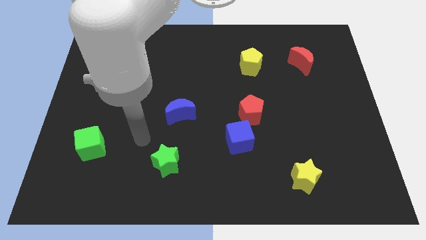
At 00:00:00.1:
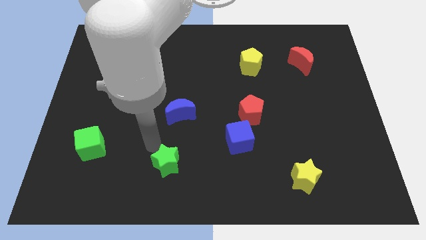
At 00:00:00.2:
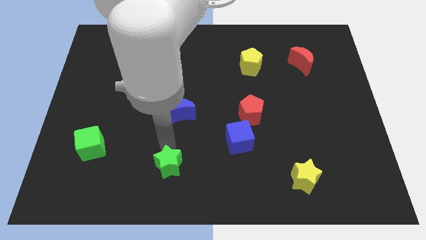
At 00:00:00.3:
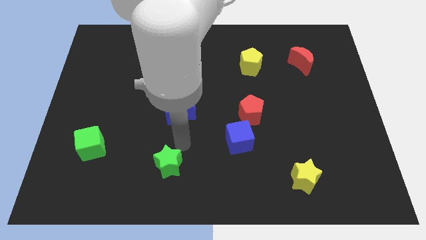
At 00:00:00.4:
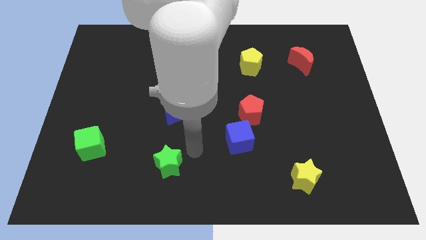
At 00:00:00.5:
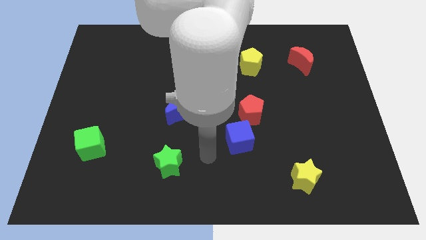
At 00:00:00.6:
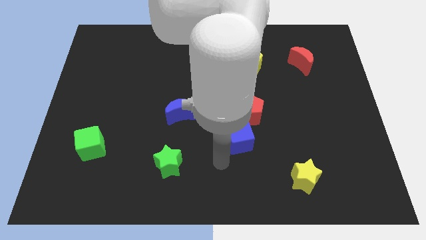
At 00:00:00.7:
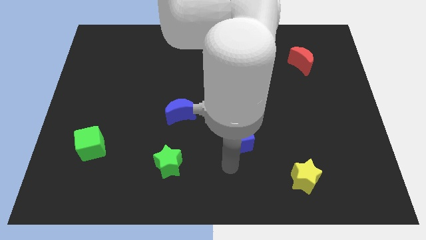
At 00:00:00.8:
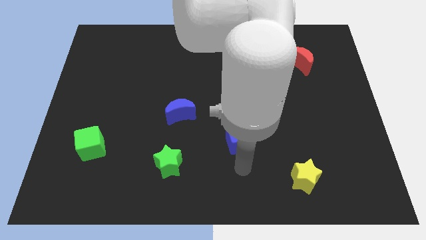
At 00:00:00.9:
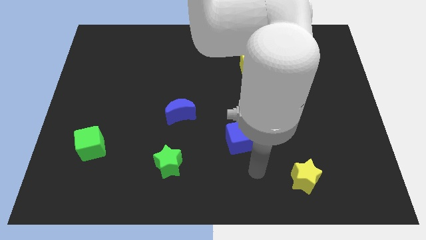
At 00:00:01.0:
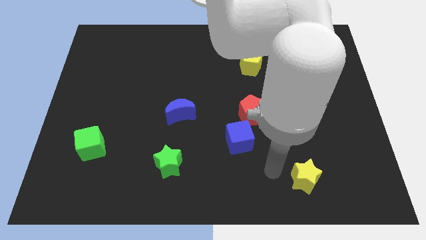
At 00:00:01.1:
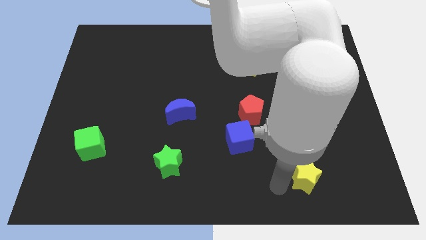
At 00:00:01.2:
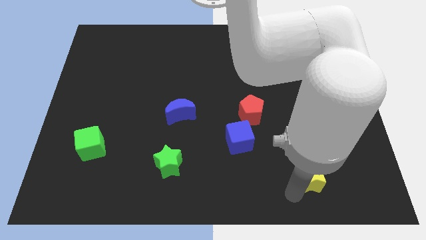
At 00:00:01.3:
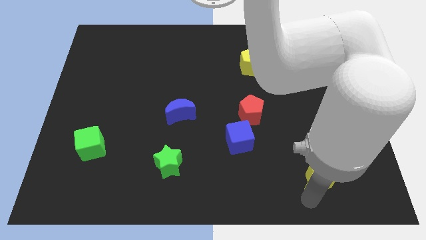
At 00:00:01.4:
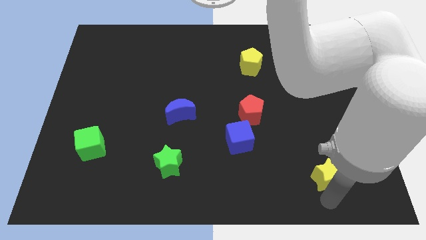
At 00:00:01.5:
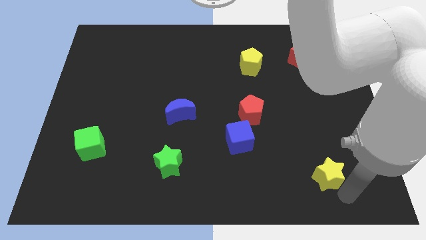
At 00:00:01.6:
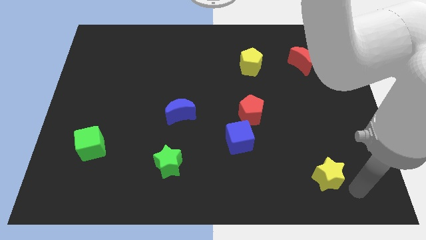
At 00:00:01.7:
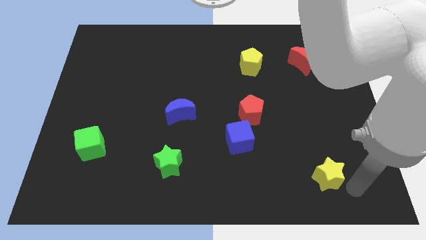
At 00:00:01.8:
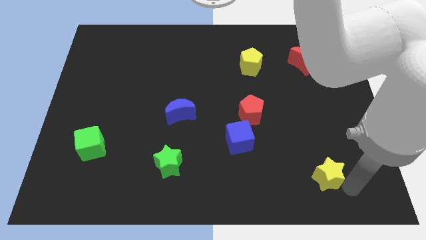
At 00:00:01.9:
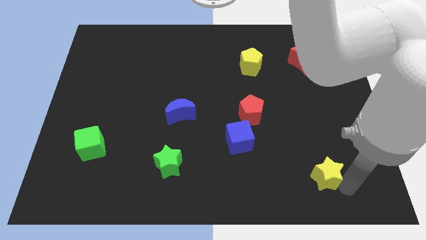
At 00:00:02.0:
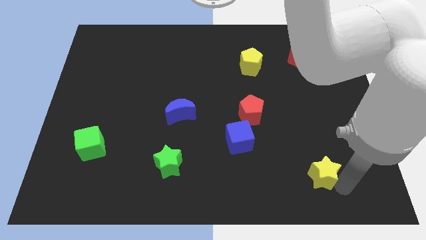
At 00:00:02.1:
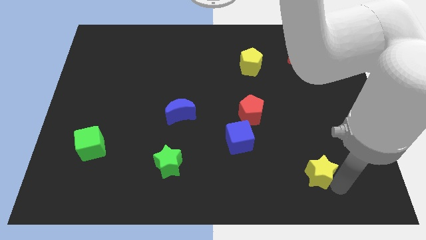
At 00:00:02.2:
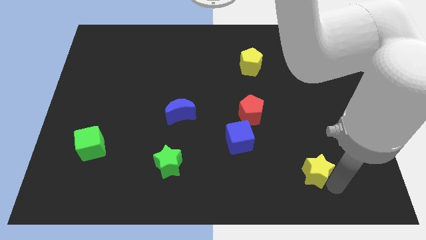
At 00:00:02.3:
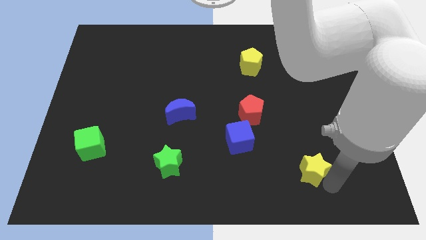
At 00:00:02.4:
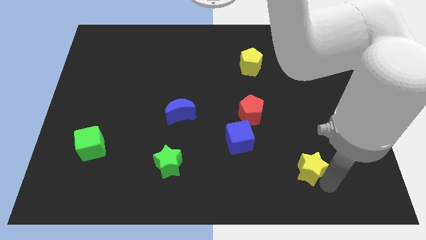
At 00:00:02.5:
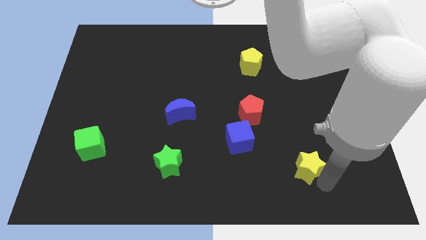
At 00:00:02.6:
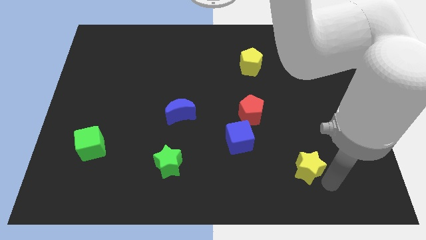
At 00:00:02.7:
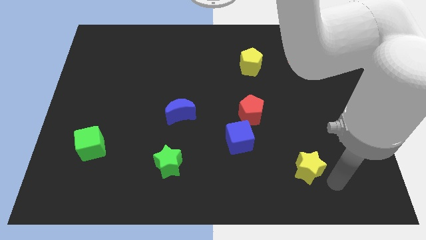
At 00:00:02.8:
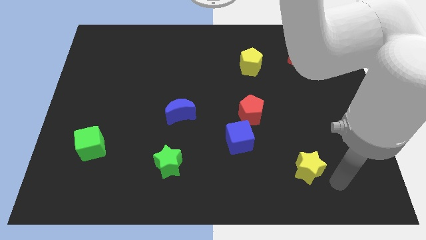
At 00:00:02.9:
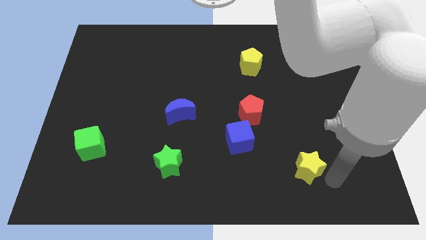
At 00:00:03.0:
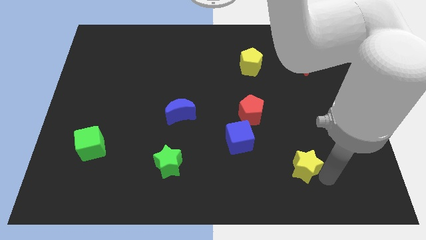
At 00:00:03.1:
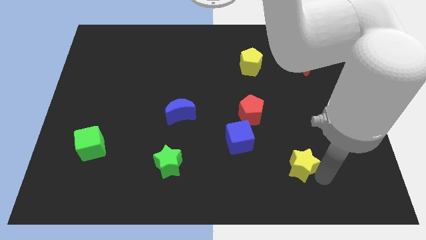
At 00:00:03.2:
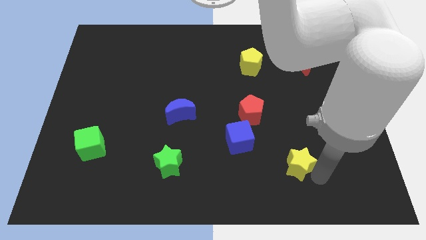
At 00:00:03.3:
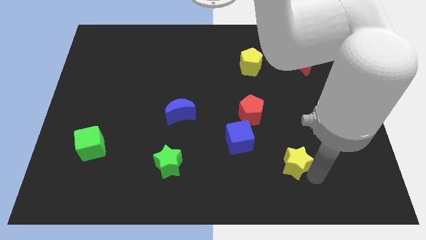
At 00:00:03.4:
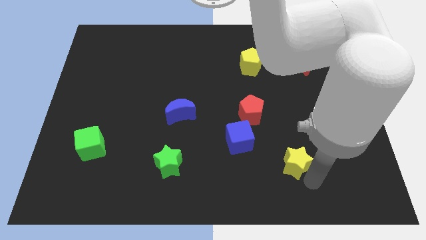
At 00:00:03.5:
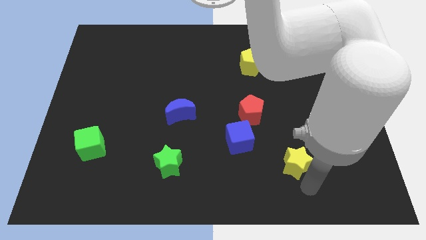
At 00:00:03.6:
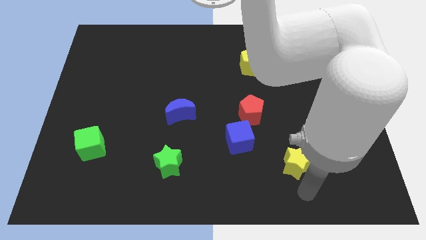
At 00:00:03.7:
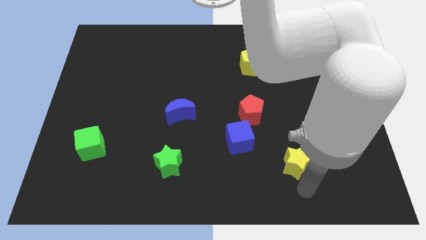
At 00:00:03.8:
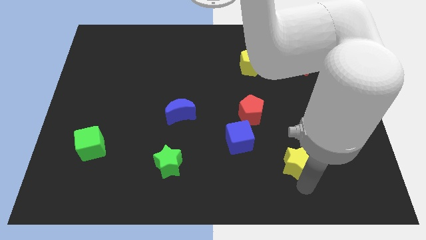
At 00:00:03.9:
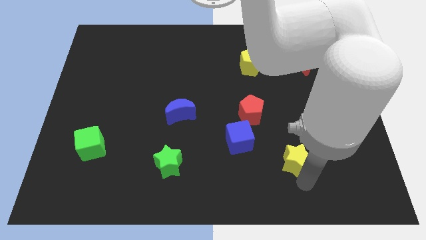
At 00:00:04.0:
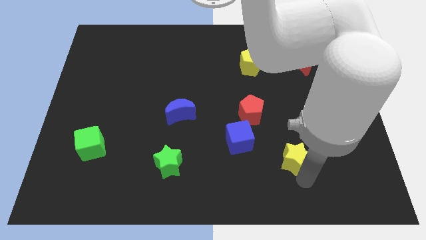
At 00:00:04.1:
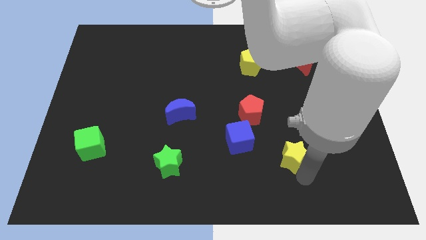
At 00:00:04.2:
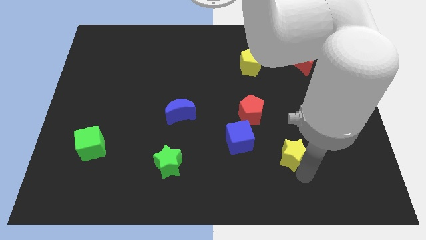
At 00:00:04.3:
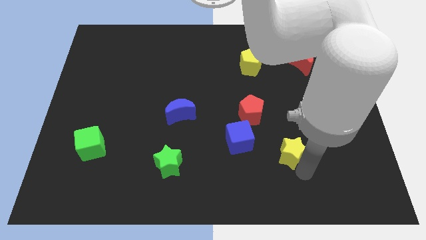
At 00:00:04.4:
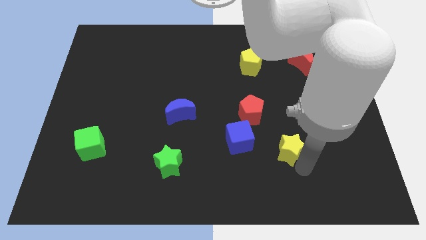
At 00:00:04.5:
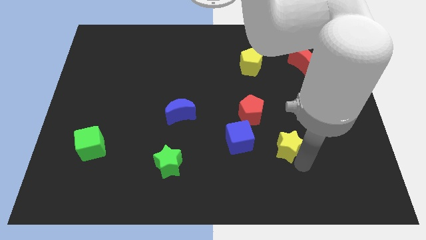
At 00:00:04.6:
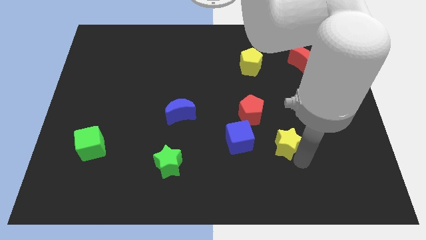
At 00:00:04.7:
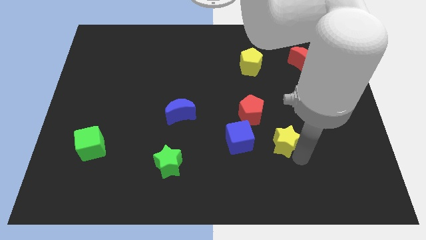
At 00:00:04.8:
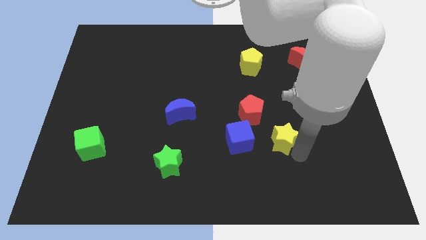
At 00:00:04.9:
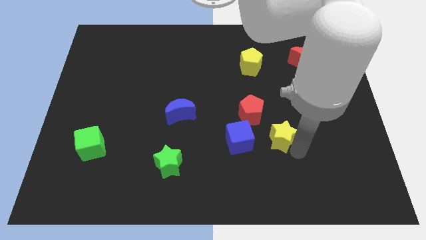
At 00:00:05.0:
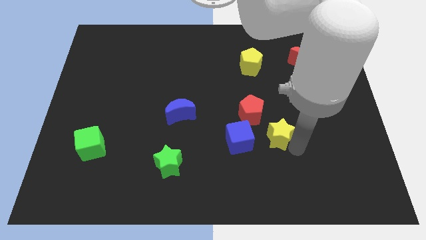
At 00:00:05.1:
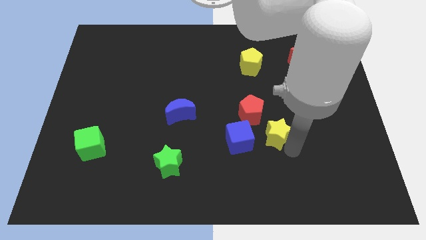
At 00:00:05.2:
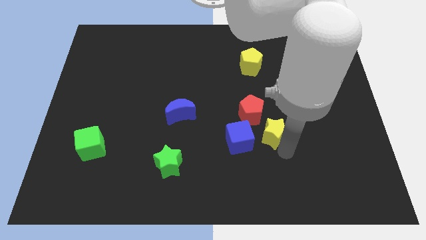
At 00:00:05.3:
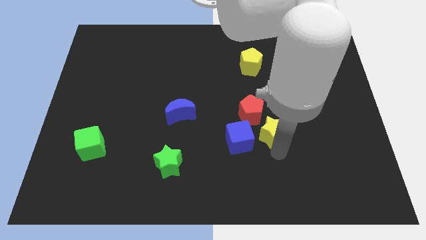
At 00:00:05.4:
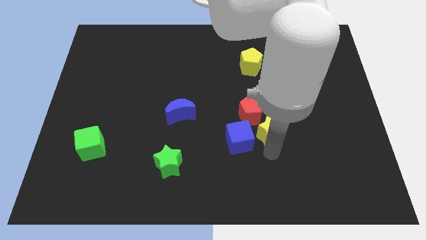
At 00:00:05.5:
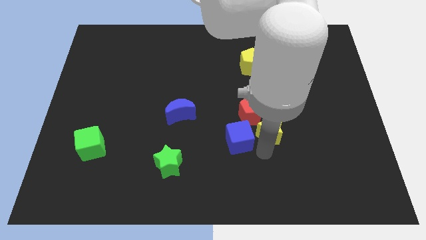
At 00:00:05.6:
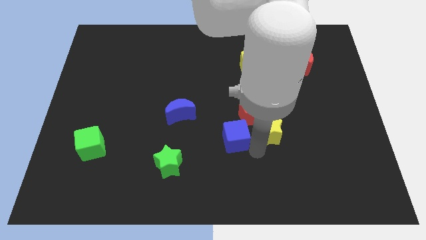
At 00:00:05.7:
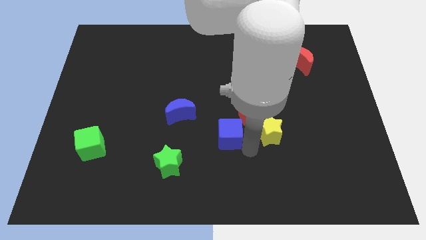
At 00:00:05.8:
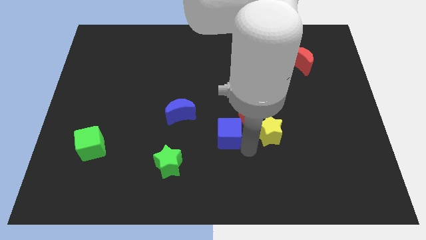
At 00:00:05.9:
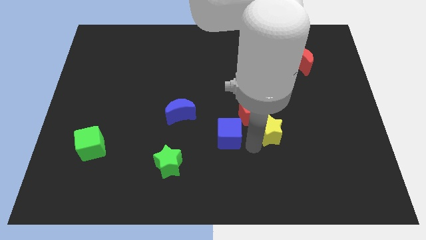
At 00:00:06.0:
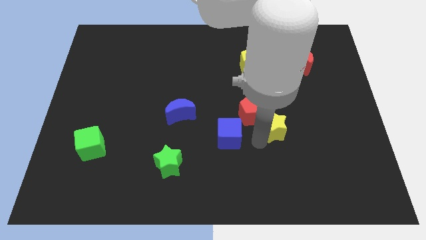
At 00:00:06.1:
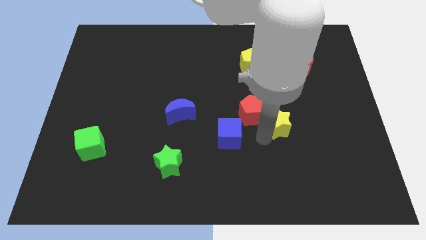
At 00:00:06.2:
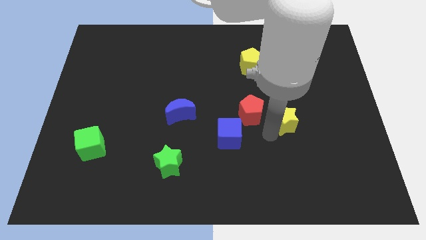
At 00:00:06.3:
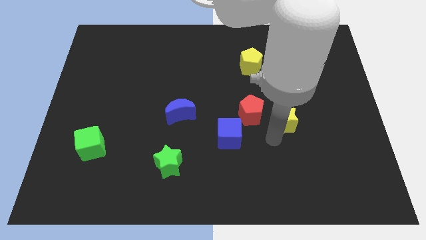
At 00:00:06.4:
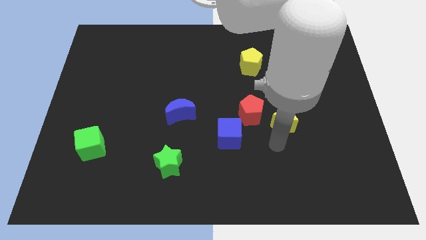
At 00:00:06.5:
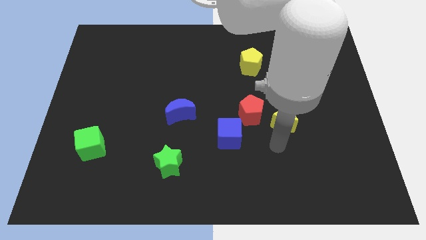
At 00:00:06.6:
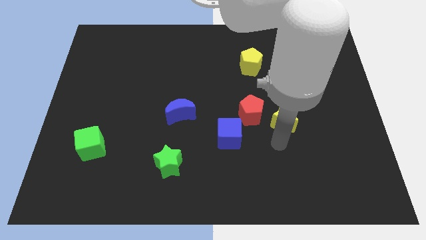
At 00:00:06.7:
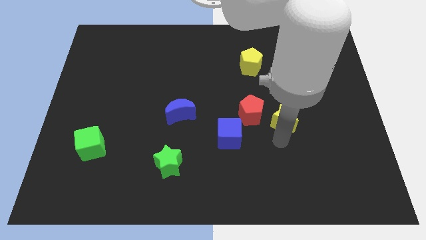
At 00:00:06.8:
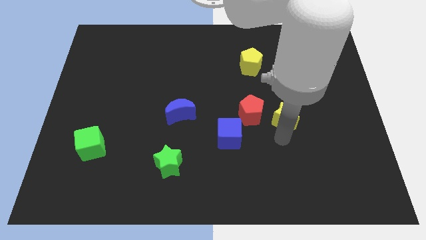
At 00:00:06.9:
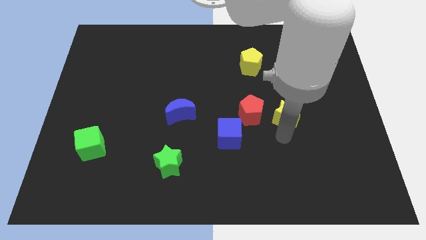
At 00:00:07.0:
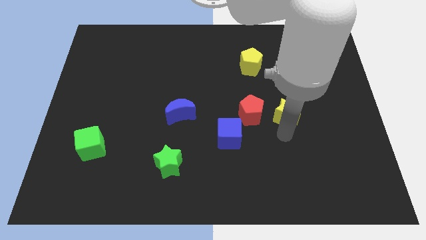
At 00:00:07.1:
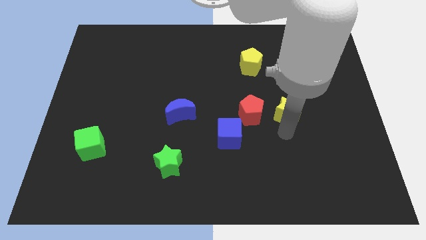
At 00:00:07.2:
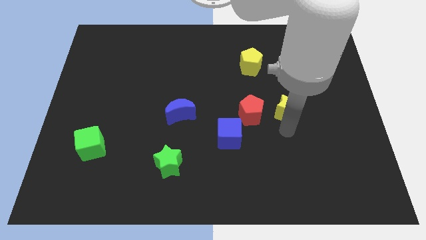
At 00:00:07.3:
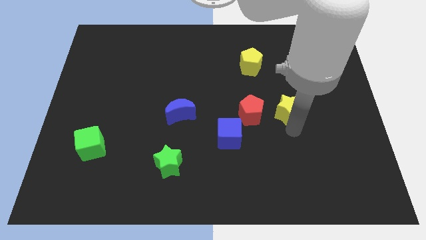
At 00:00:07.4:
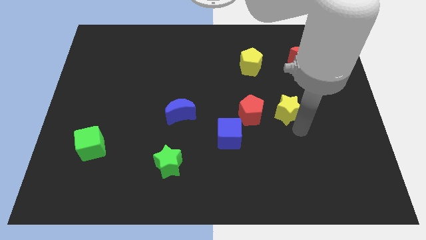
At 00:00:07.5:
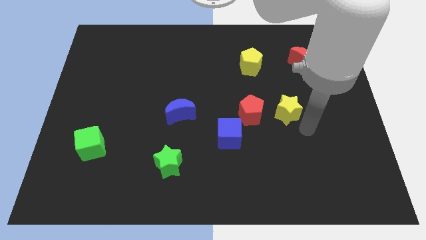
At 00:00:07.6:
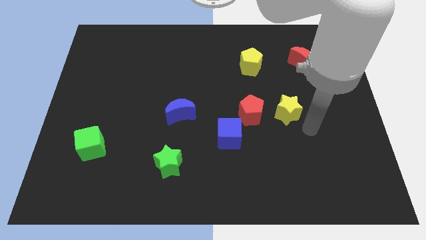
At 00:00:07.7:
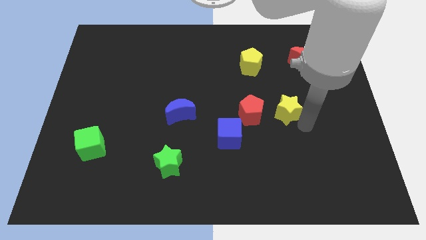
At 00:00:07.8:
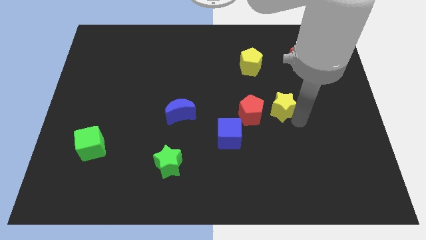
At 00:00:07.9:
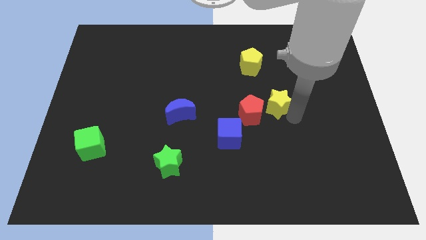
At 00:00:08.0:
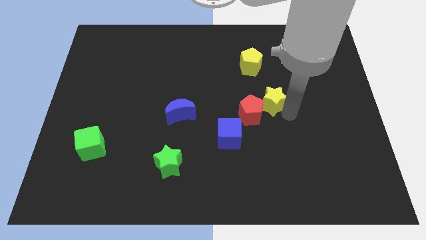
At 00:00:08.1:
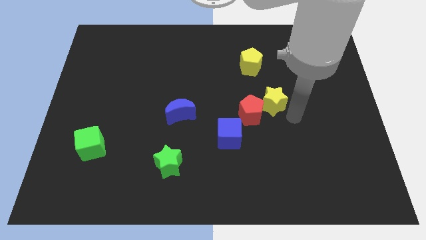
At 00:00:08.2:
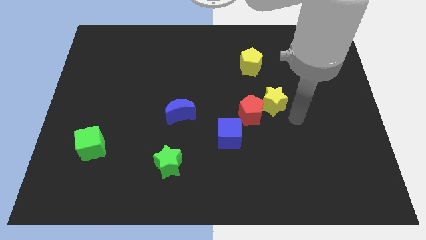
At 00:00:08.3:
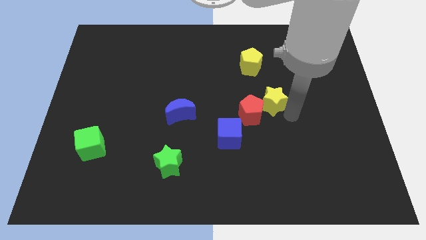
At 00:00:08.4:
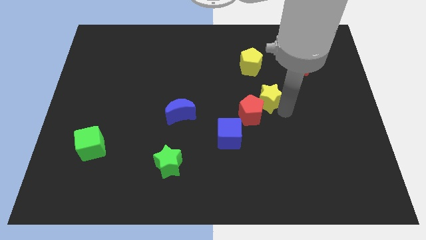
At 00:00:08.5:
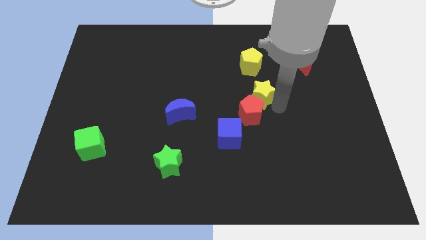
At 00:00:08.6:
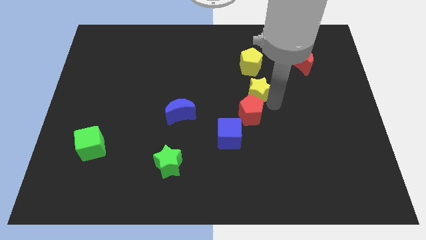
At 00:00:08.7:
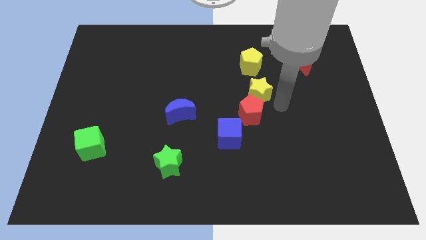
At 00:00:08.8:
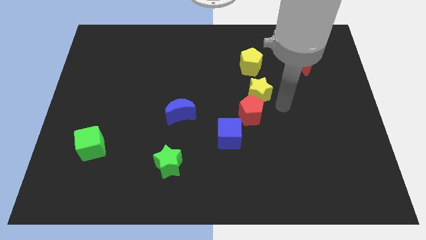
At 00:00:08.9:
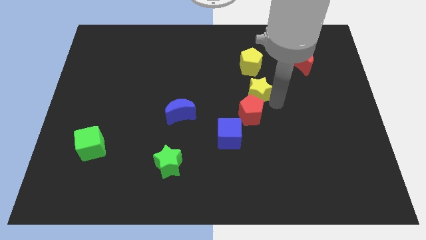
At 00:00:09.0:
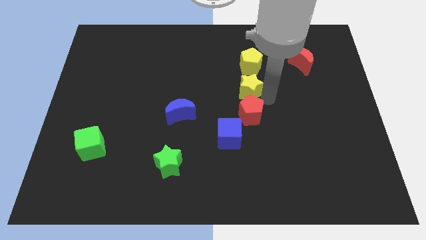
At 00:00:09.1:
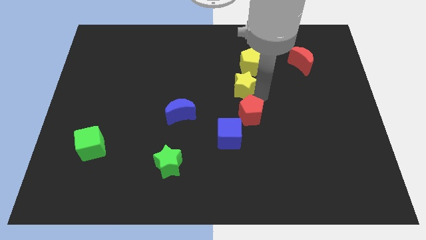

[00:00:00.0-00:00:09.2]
slide the yellow star to the bottom left of the yellow pentagon
